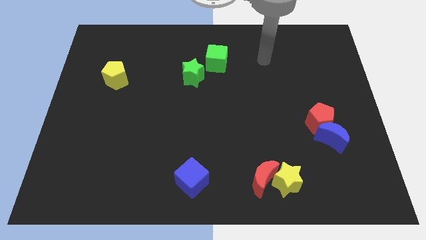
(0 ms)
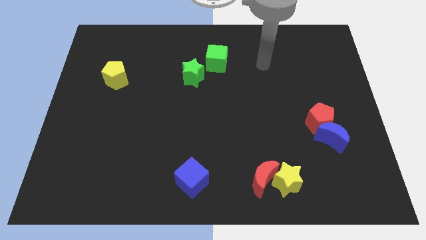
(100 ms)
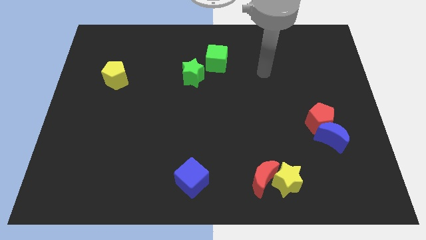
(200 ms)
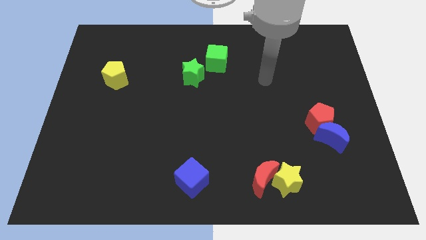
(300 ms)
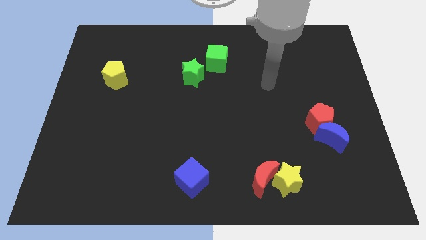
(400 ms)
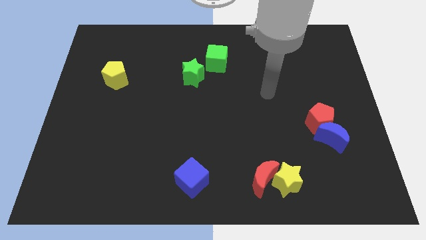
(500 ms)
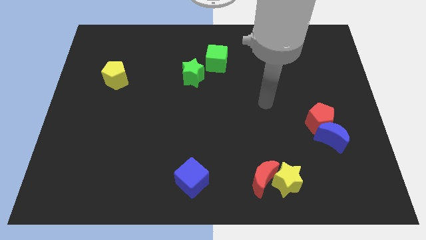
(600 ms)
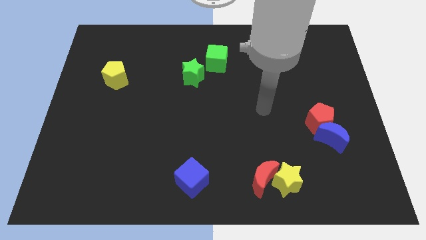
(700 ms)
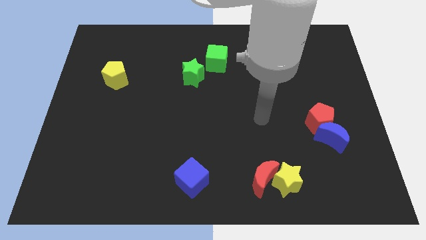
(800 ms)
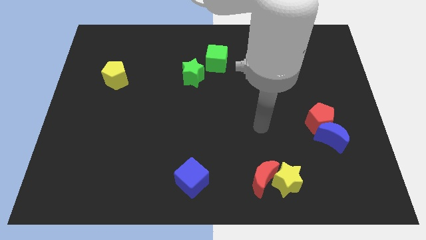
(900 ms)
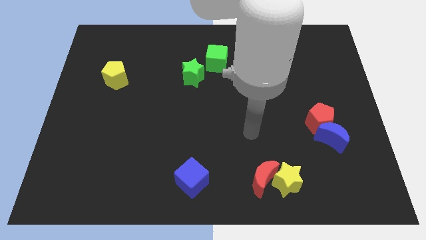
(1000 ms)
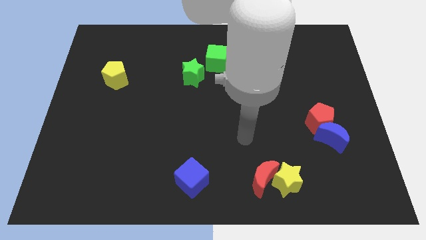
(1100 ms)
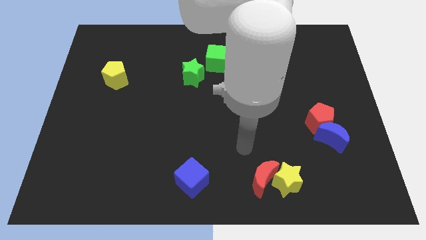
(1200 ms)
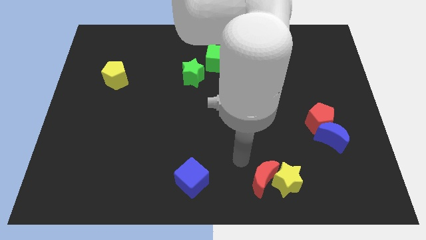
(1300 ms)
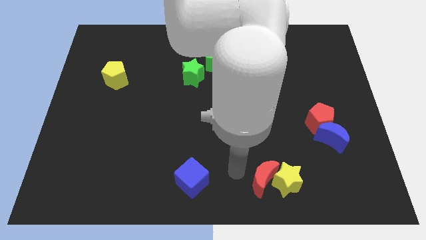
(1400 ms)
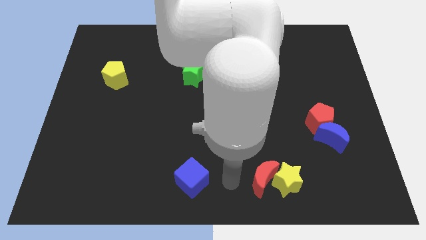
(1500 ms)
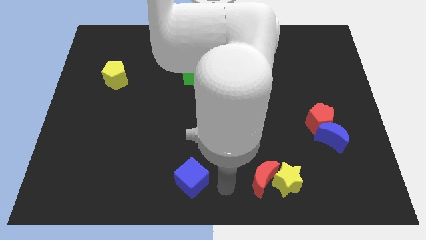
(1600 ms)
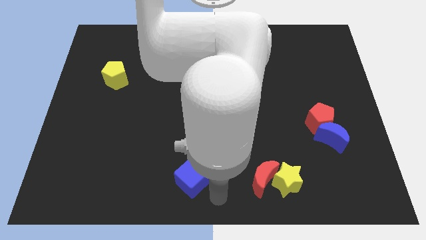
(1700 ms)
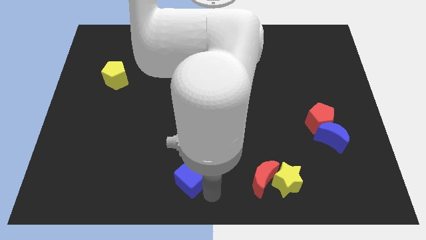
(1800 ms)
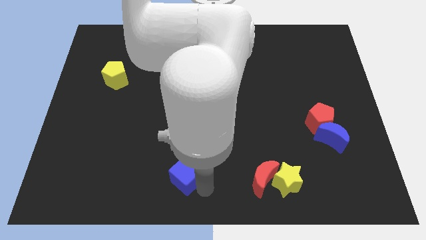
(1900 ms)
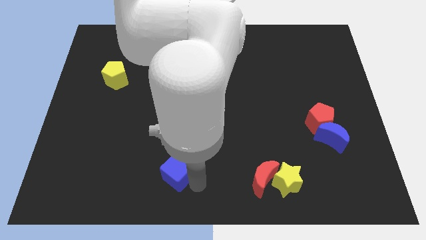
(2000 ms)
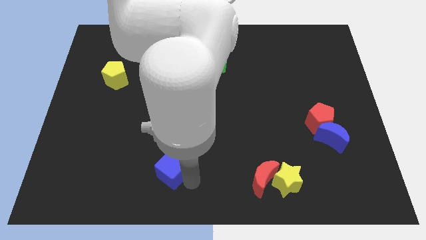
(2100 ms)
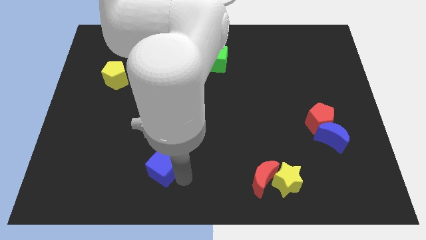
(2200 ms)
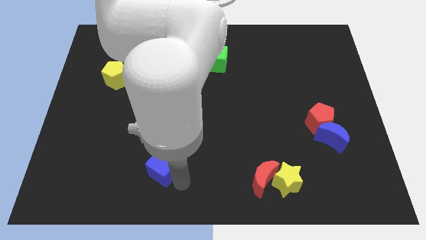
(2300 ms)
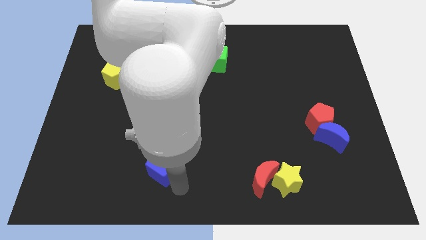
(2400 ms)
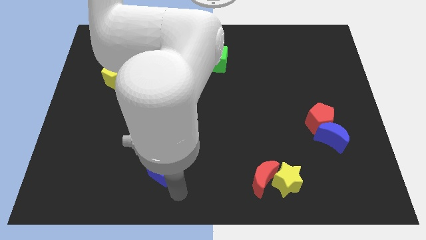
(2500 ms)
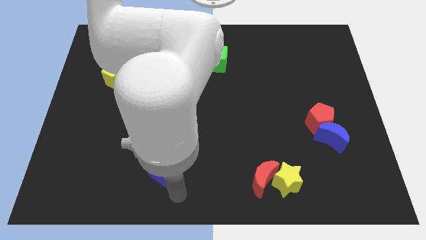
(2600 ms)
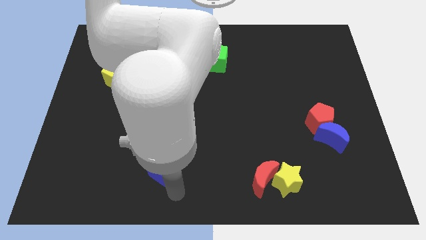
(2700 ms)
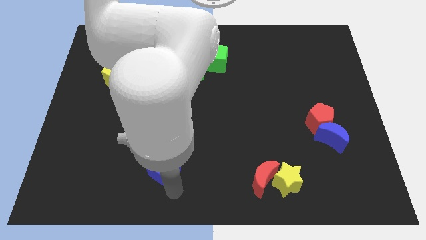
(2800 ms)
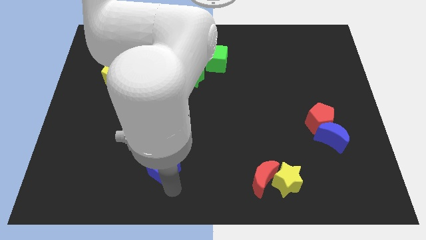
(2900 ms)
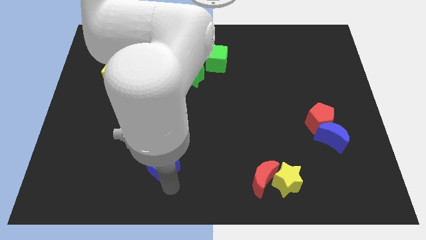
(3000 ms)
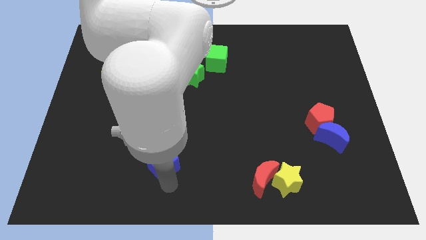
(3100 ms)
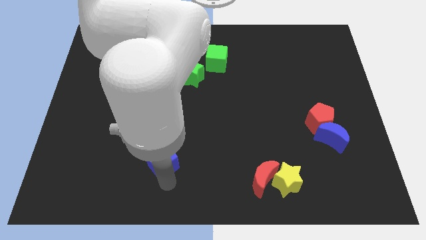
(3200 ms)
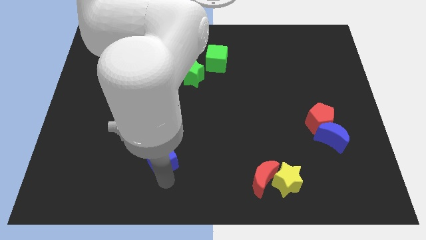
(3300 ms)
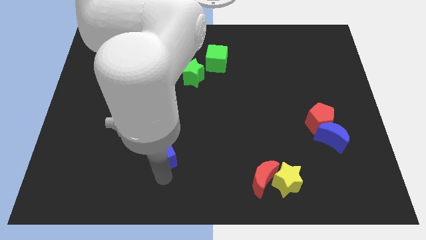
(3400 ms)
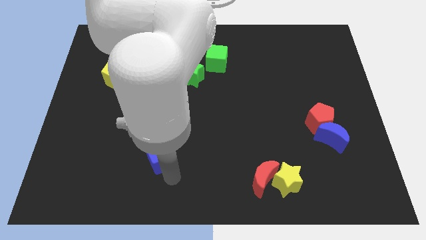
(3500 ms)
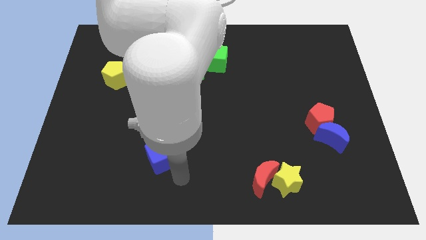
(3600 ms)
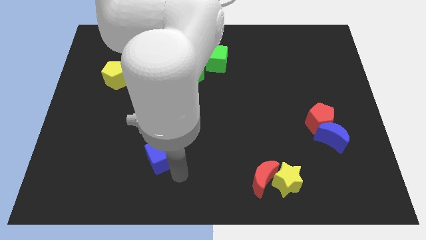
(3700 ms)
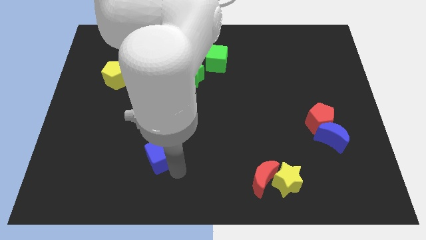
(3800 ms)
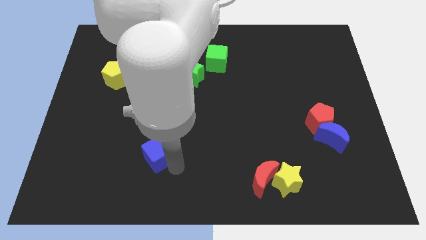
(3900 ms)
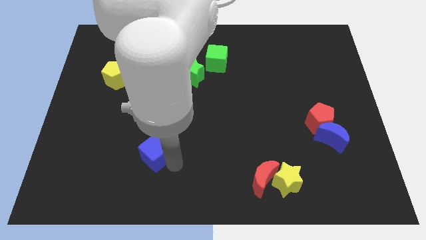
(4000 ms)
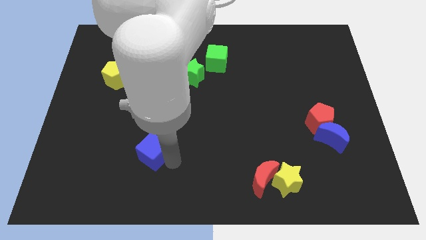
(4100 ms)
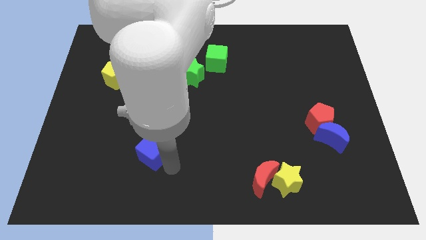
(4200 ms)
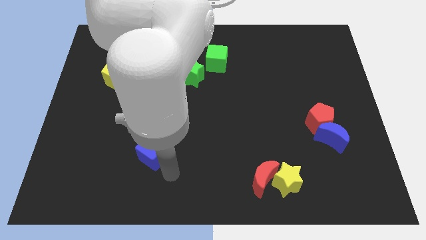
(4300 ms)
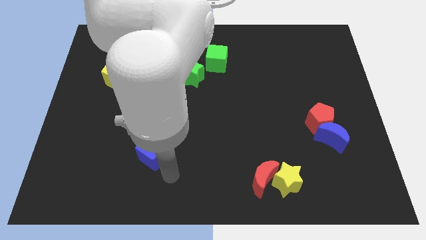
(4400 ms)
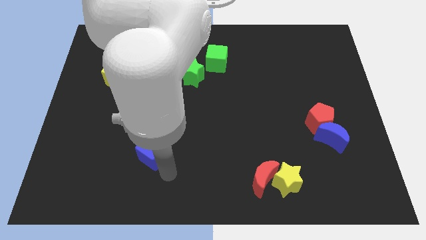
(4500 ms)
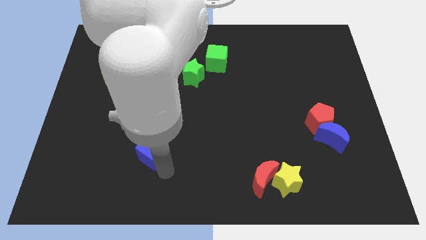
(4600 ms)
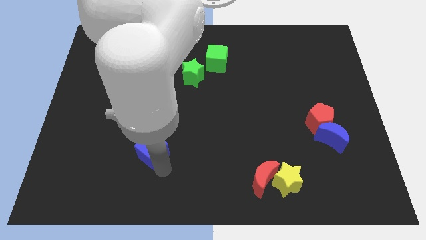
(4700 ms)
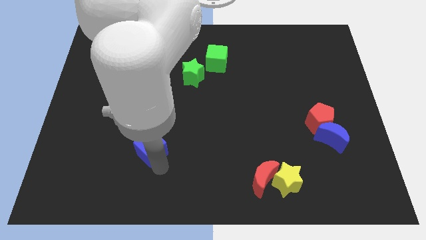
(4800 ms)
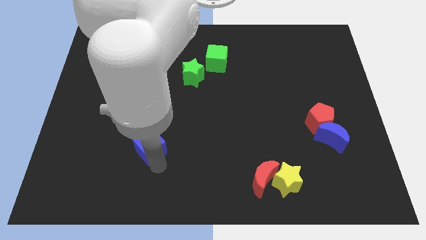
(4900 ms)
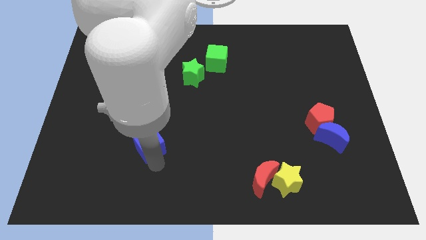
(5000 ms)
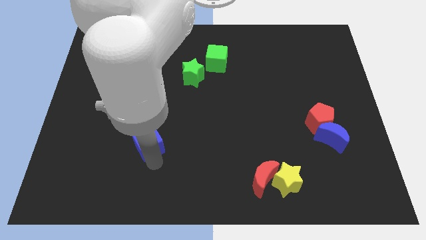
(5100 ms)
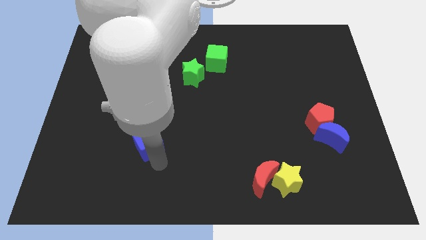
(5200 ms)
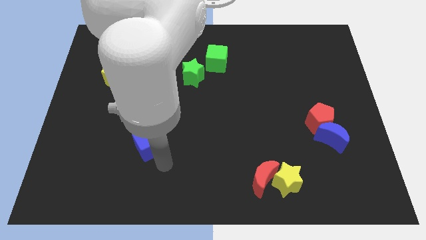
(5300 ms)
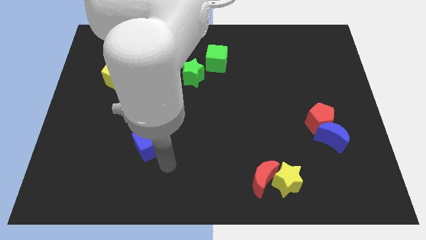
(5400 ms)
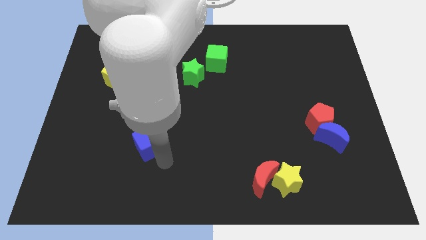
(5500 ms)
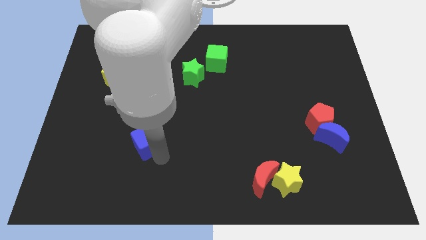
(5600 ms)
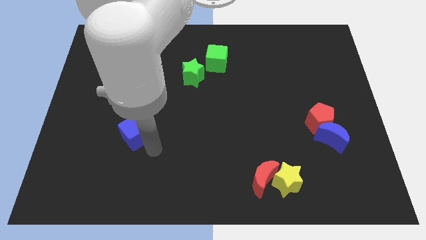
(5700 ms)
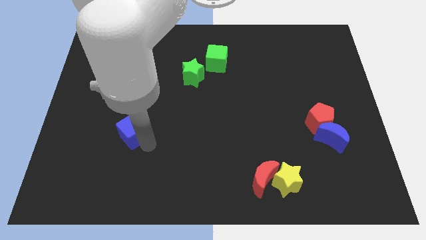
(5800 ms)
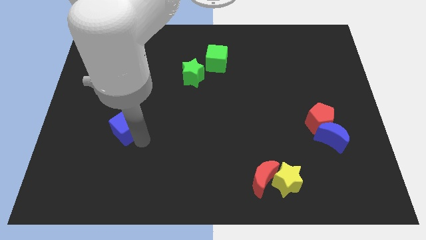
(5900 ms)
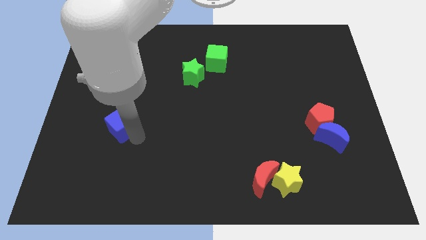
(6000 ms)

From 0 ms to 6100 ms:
push the blue cube up and left diagonally

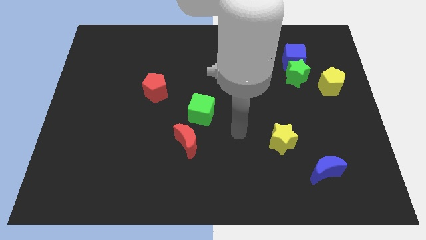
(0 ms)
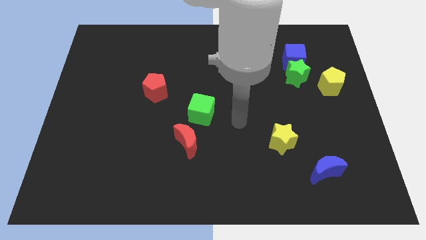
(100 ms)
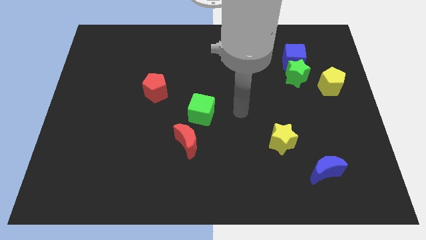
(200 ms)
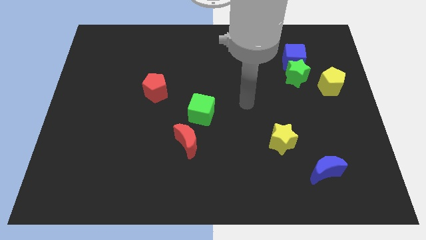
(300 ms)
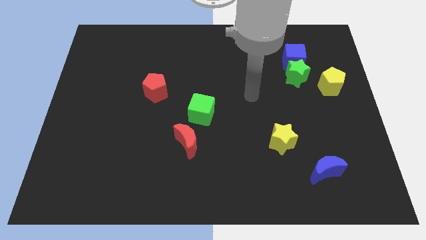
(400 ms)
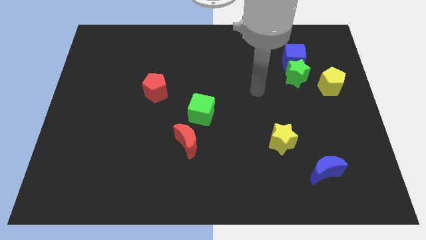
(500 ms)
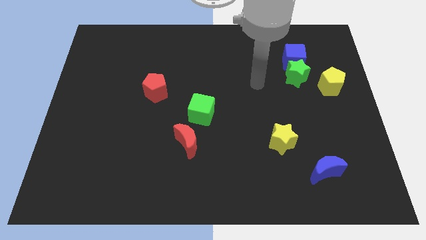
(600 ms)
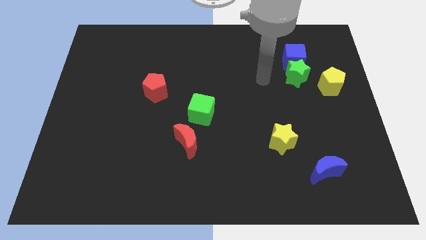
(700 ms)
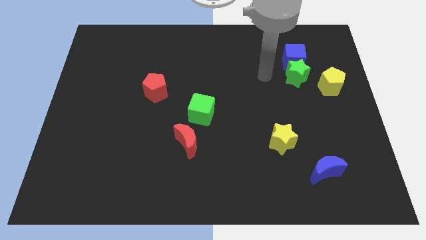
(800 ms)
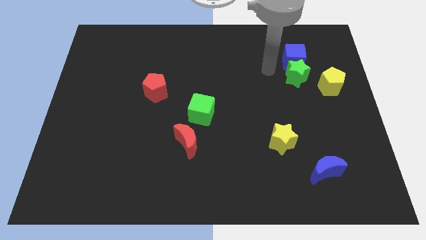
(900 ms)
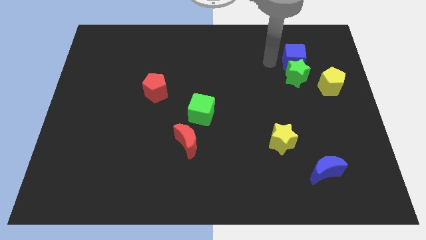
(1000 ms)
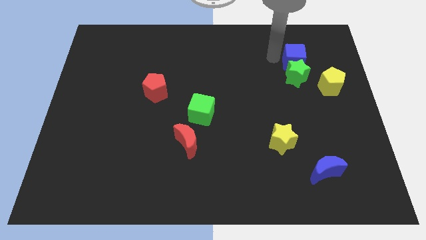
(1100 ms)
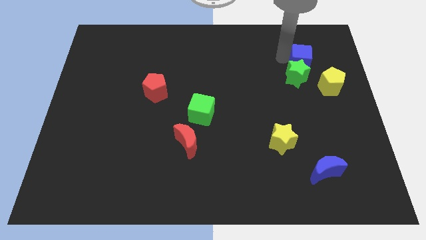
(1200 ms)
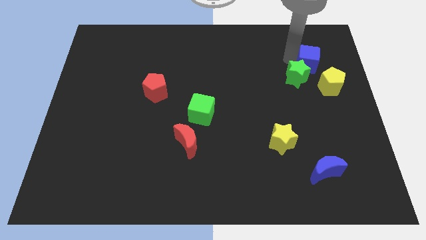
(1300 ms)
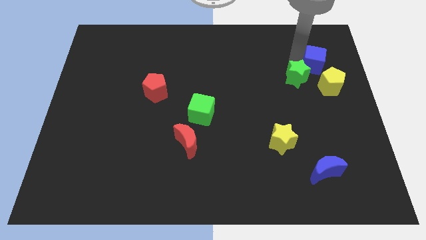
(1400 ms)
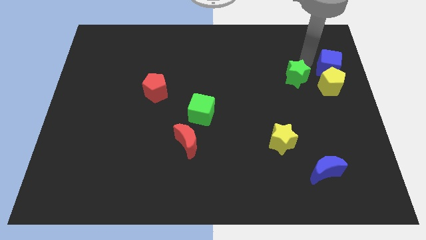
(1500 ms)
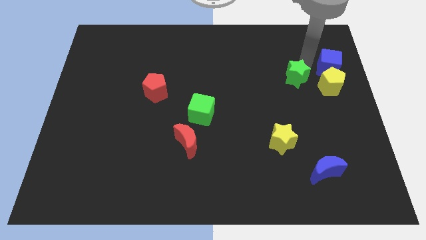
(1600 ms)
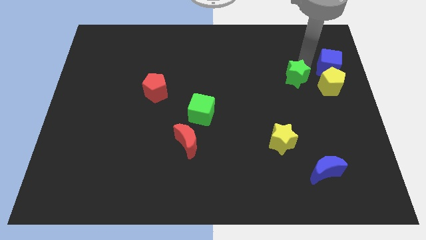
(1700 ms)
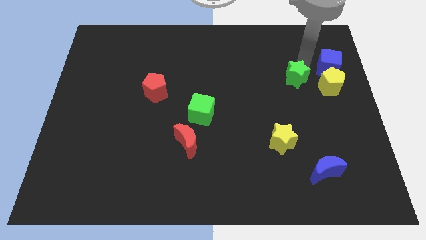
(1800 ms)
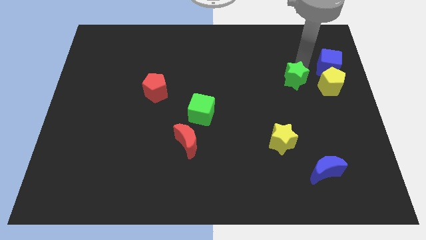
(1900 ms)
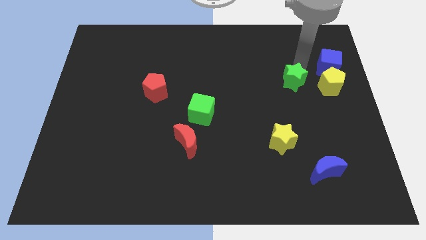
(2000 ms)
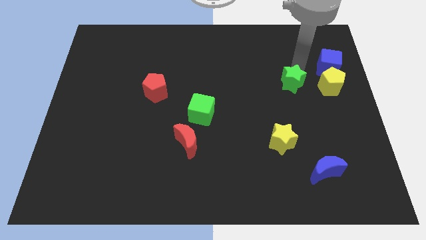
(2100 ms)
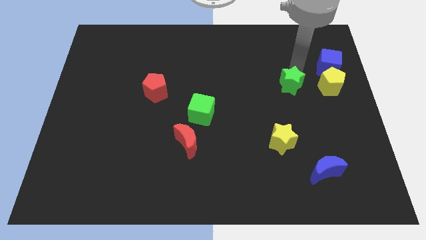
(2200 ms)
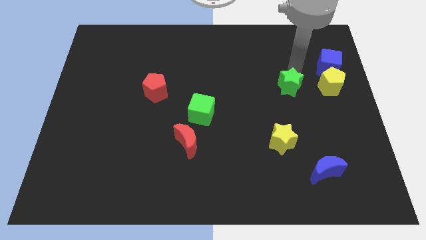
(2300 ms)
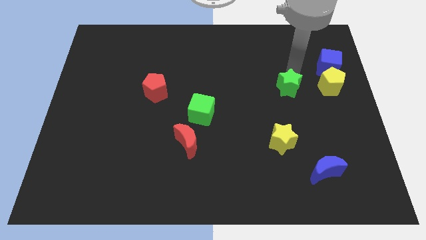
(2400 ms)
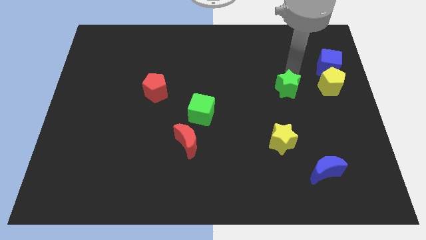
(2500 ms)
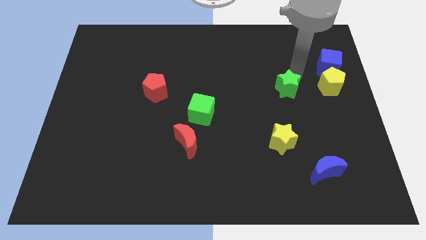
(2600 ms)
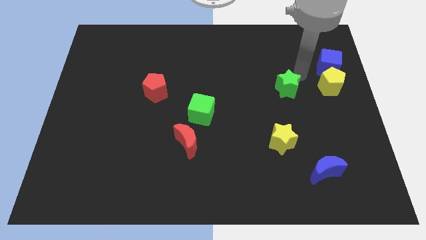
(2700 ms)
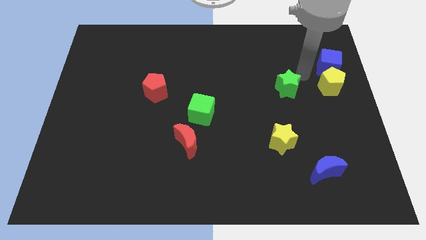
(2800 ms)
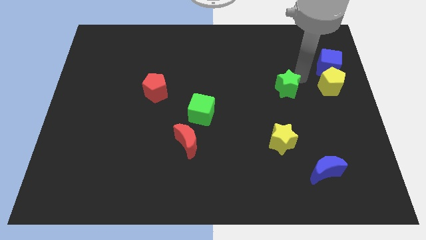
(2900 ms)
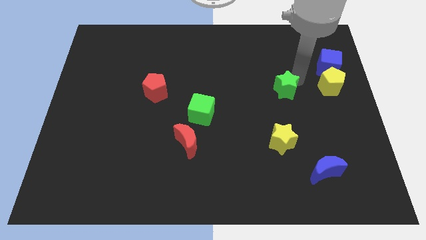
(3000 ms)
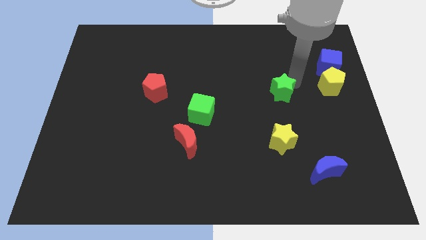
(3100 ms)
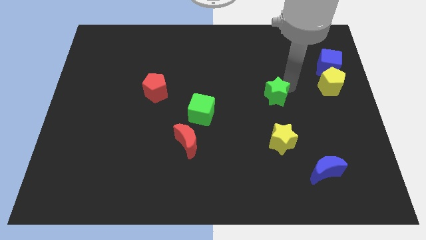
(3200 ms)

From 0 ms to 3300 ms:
move the green star a bit down and left
